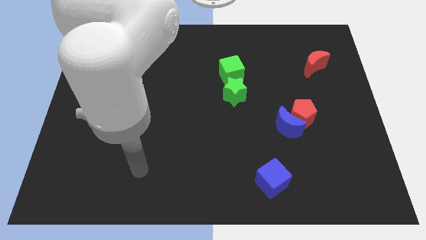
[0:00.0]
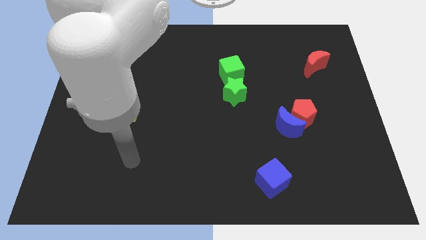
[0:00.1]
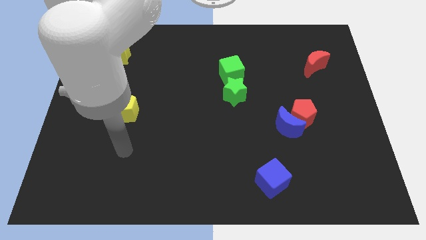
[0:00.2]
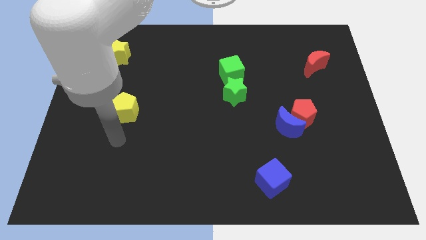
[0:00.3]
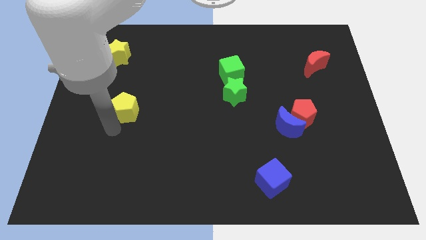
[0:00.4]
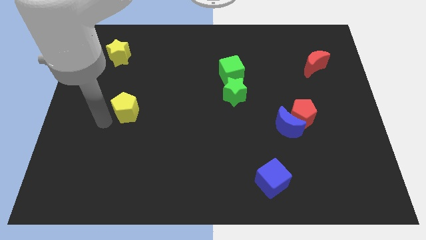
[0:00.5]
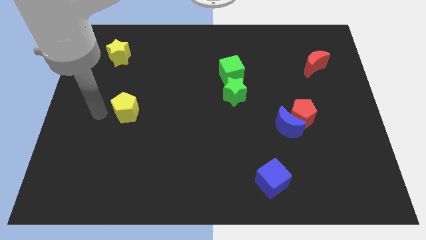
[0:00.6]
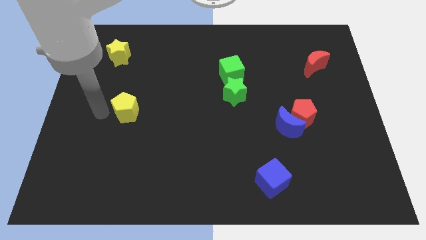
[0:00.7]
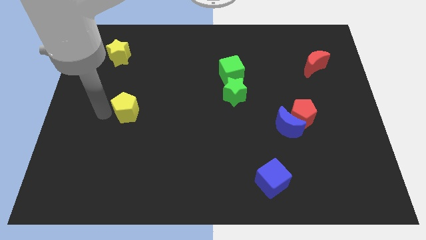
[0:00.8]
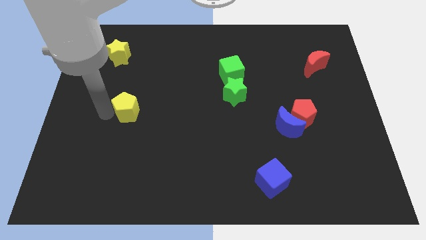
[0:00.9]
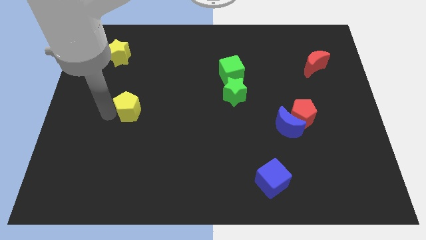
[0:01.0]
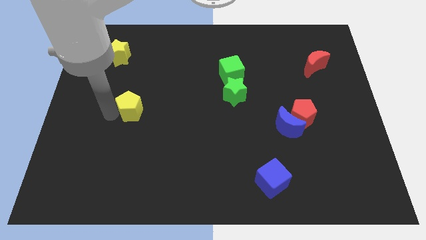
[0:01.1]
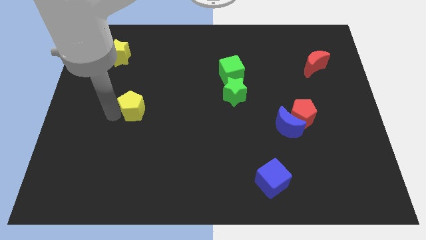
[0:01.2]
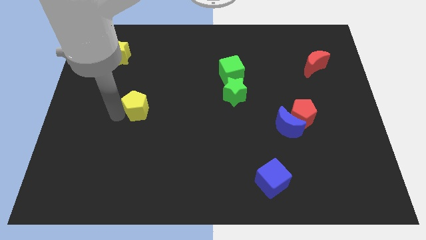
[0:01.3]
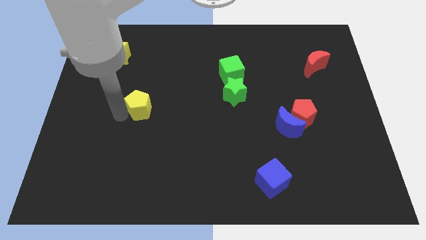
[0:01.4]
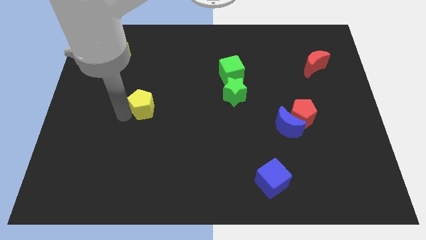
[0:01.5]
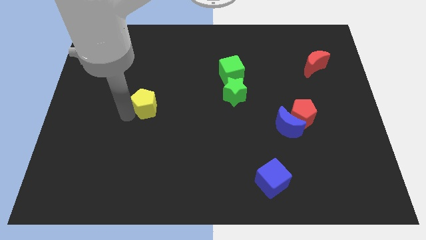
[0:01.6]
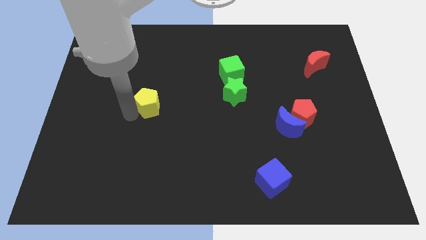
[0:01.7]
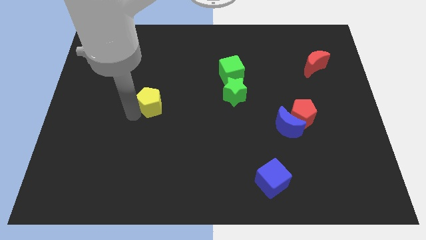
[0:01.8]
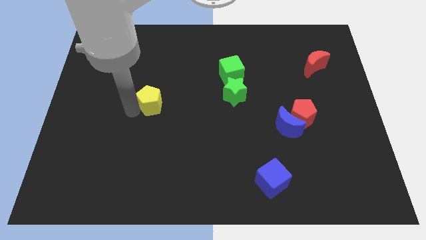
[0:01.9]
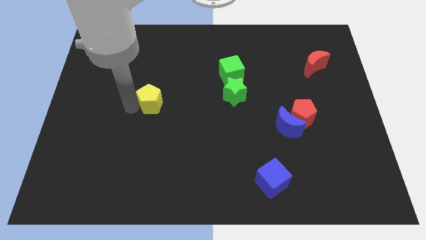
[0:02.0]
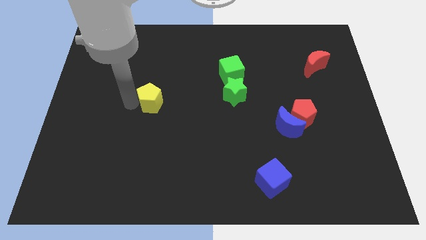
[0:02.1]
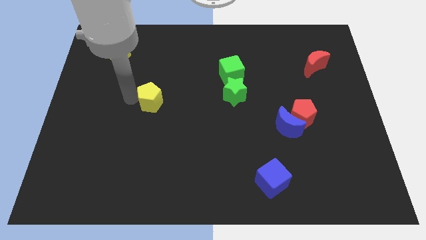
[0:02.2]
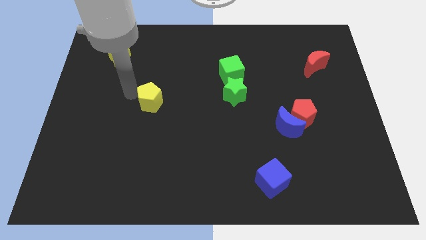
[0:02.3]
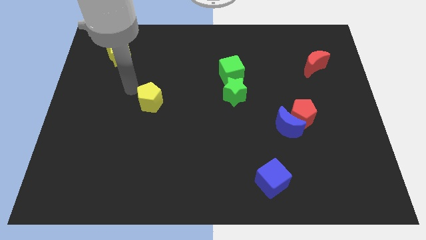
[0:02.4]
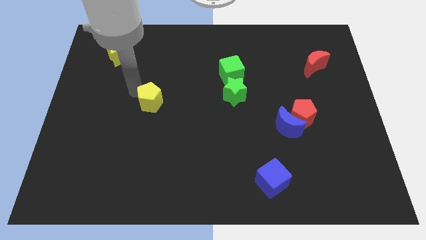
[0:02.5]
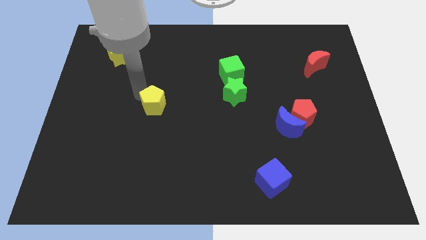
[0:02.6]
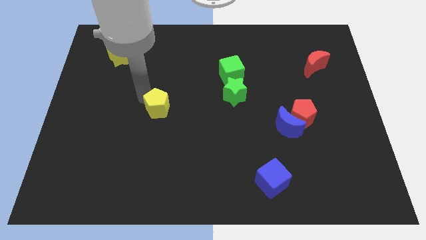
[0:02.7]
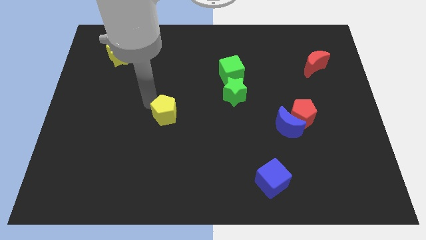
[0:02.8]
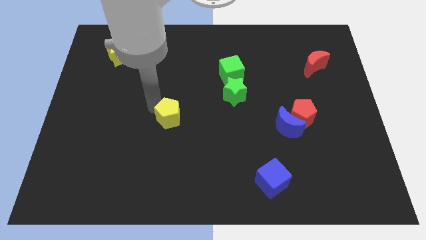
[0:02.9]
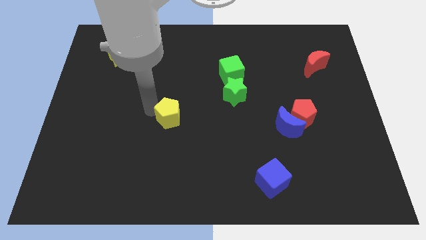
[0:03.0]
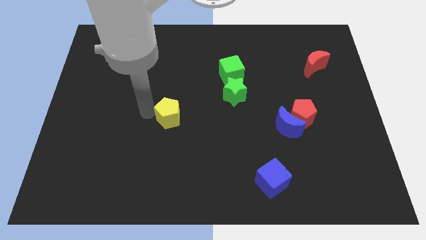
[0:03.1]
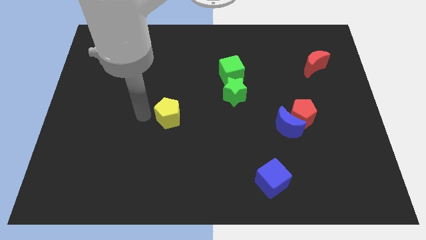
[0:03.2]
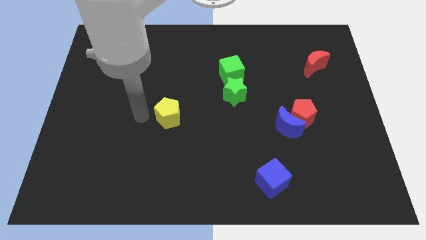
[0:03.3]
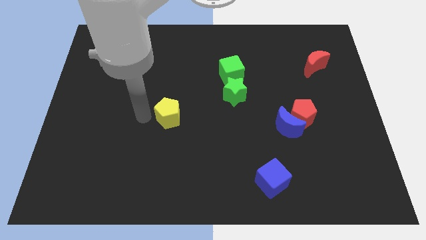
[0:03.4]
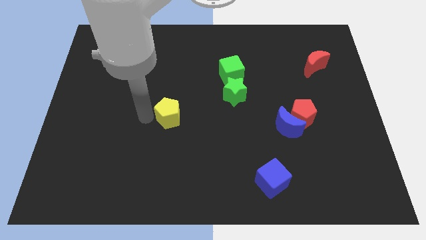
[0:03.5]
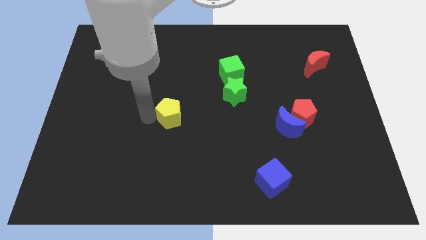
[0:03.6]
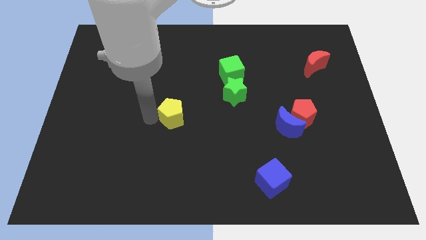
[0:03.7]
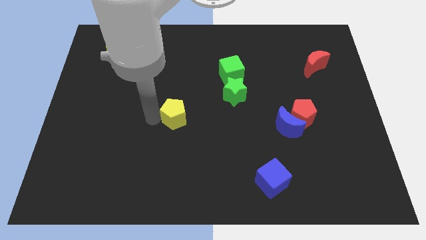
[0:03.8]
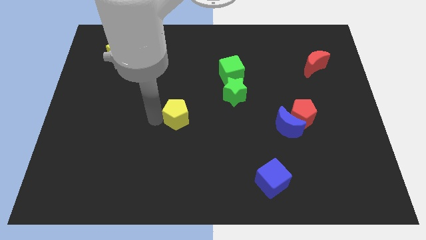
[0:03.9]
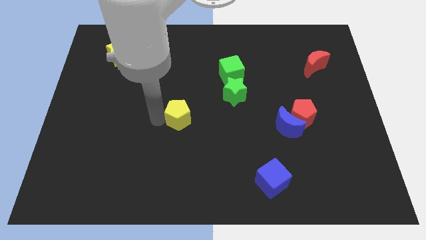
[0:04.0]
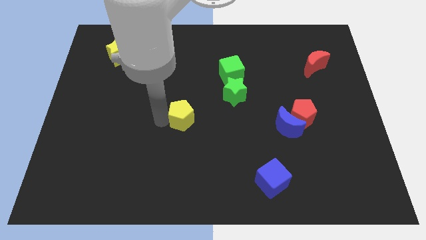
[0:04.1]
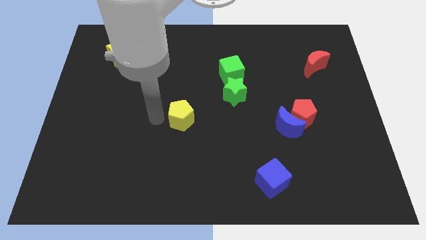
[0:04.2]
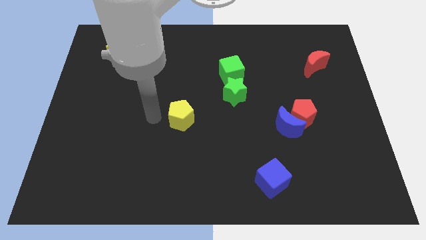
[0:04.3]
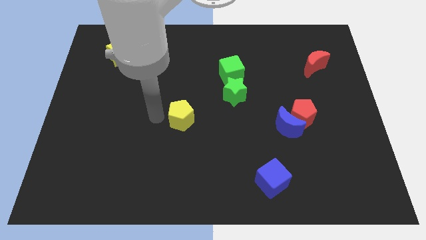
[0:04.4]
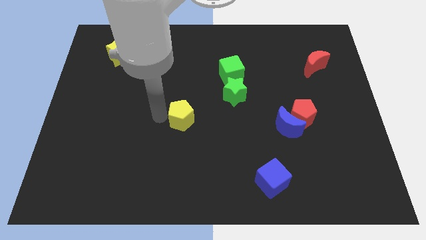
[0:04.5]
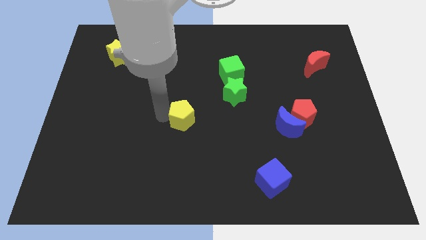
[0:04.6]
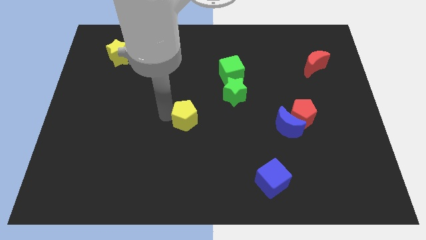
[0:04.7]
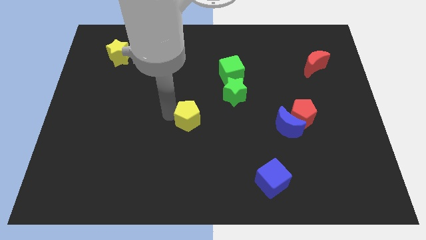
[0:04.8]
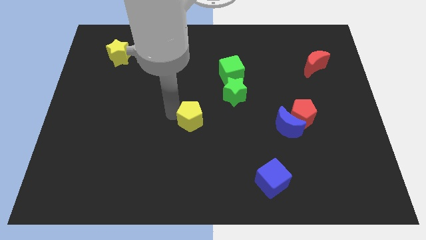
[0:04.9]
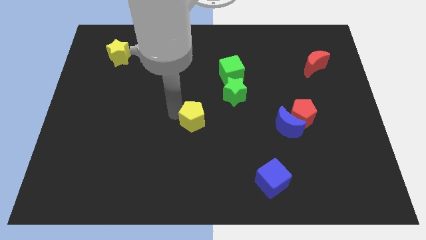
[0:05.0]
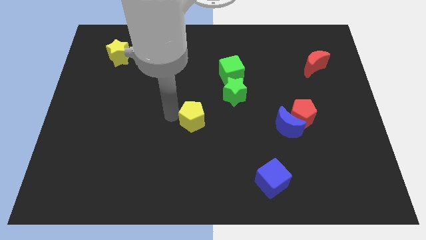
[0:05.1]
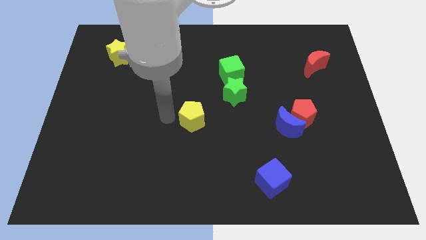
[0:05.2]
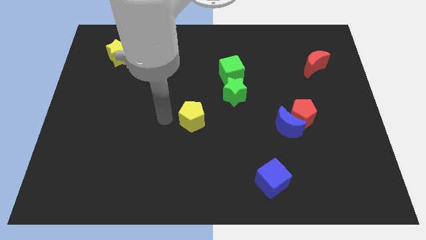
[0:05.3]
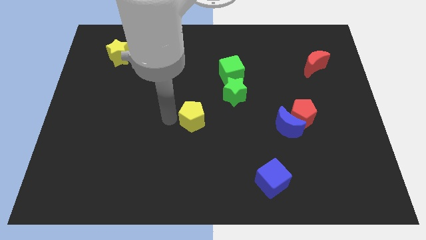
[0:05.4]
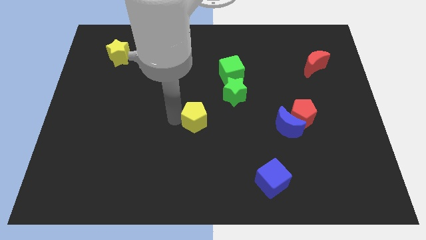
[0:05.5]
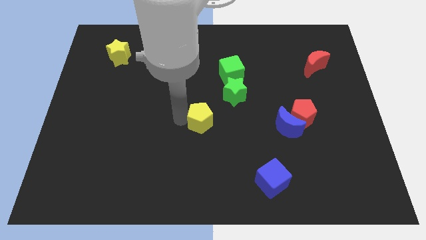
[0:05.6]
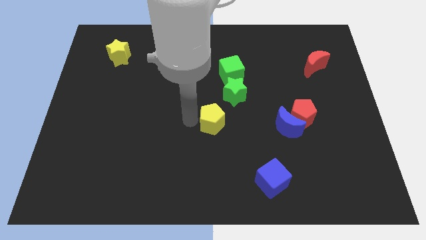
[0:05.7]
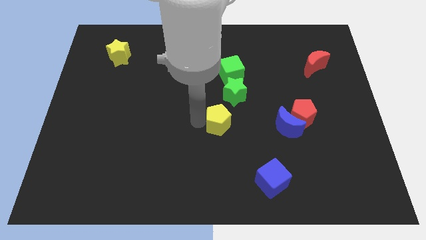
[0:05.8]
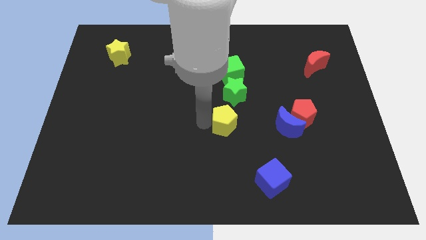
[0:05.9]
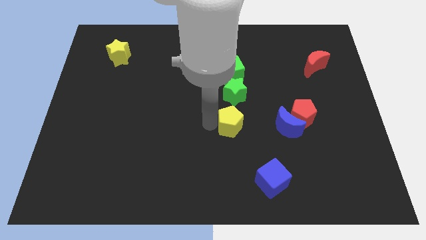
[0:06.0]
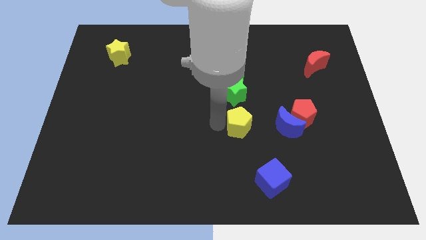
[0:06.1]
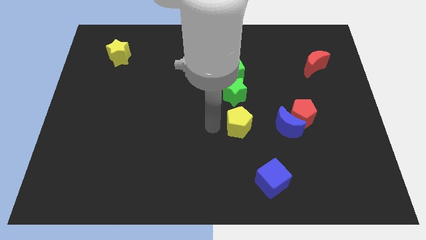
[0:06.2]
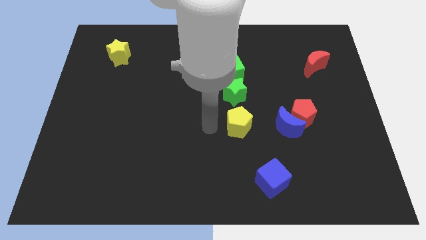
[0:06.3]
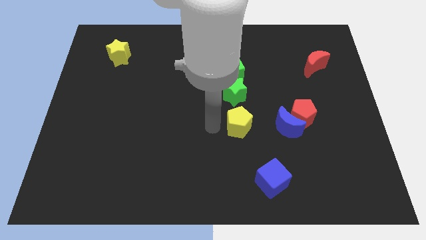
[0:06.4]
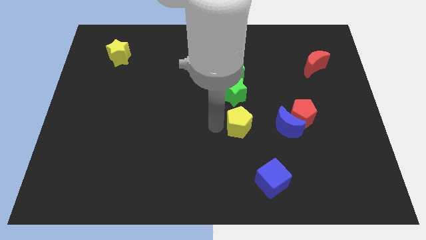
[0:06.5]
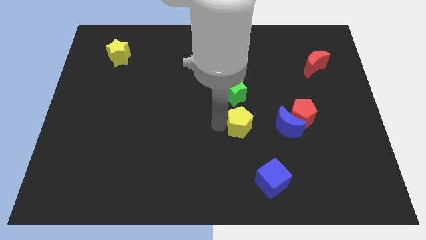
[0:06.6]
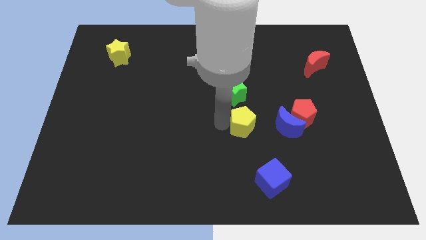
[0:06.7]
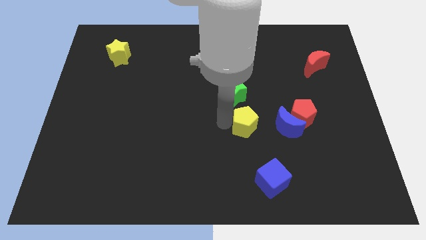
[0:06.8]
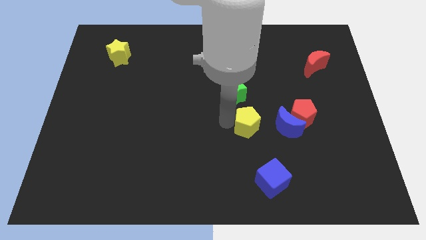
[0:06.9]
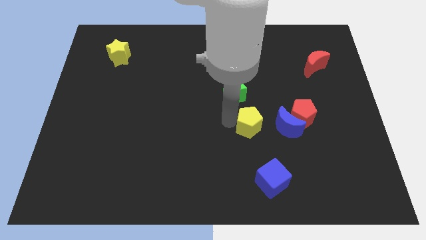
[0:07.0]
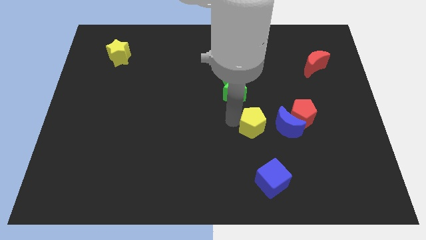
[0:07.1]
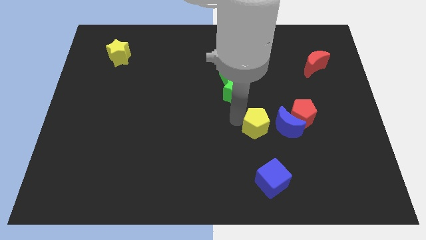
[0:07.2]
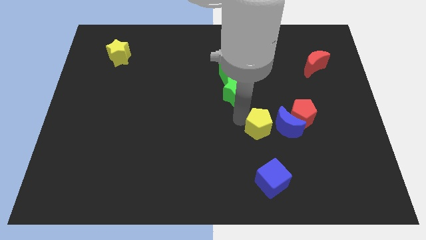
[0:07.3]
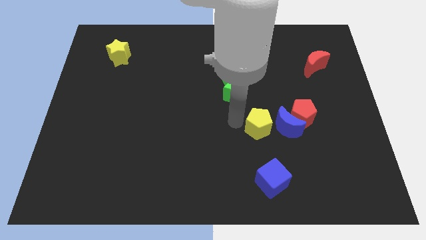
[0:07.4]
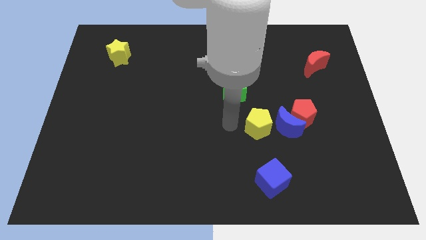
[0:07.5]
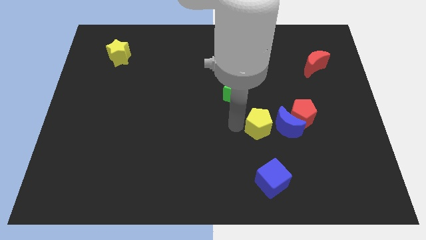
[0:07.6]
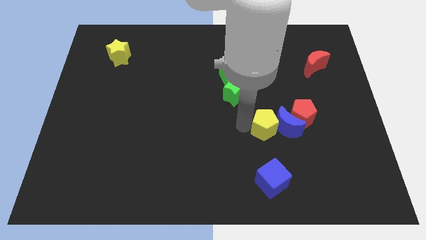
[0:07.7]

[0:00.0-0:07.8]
move the yellow pentagon towards the blue moon
